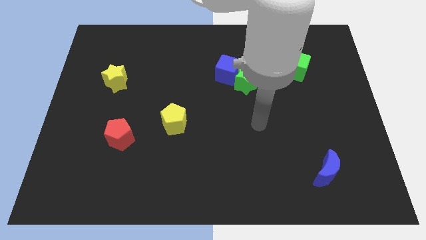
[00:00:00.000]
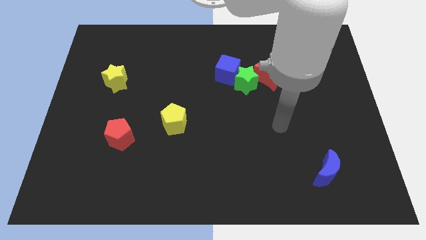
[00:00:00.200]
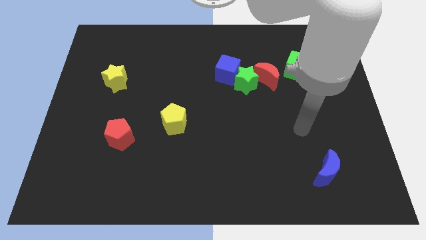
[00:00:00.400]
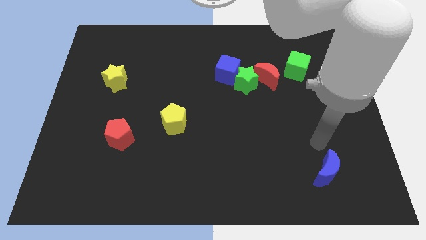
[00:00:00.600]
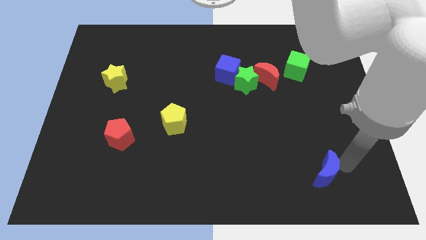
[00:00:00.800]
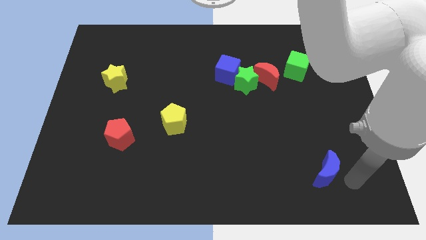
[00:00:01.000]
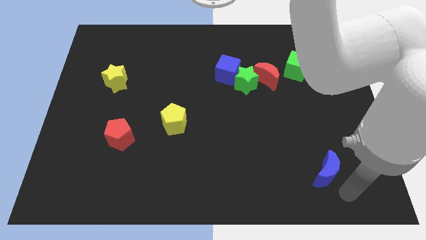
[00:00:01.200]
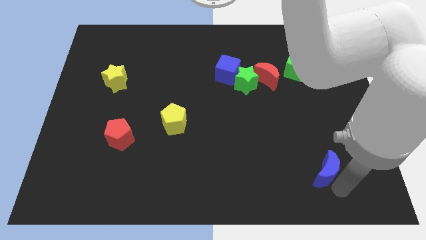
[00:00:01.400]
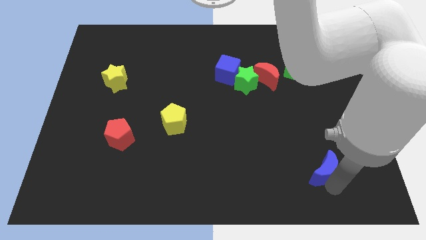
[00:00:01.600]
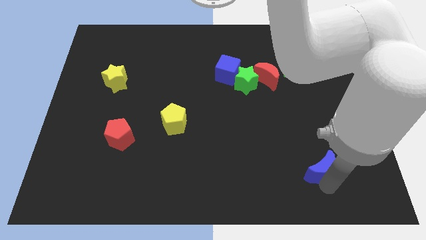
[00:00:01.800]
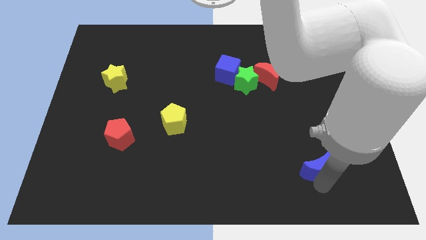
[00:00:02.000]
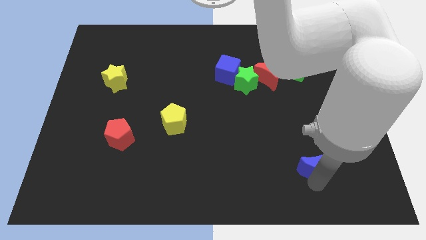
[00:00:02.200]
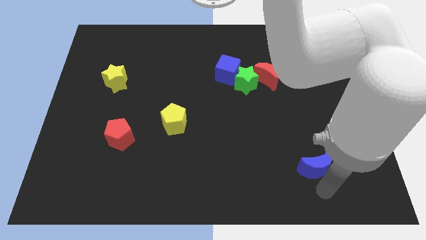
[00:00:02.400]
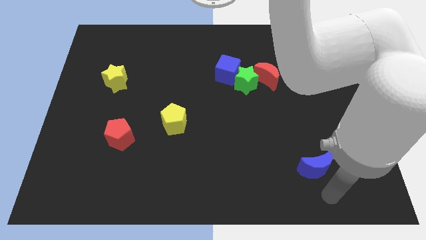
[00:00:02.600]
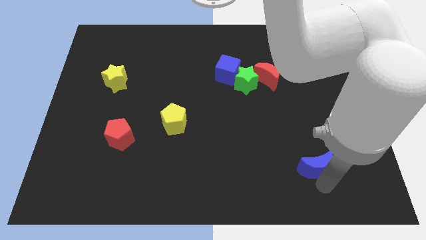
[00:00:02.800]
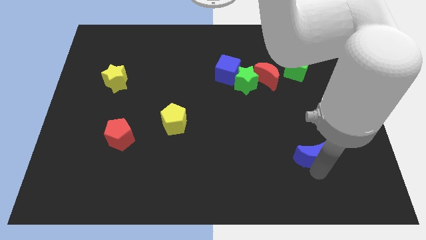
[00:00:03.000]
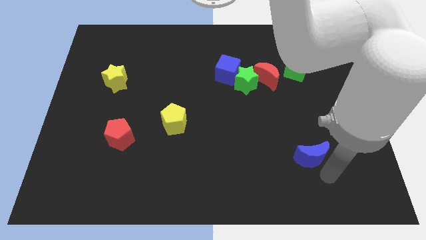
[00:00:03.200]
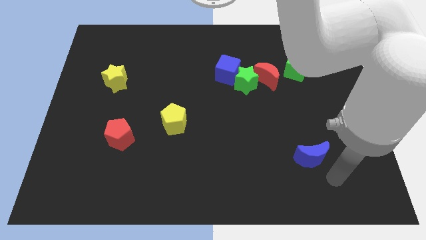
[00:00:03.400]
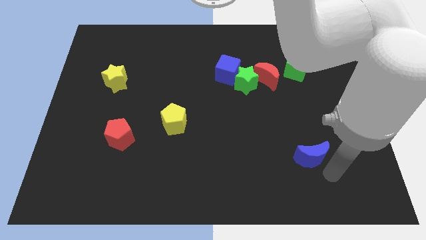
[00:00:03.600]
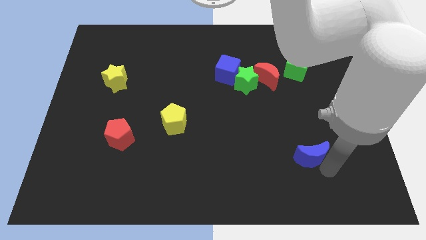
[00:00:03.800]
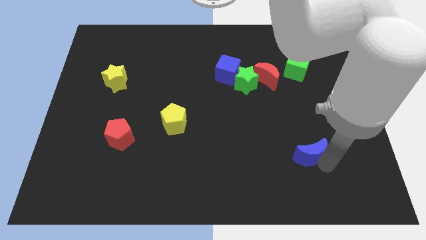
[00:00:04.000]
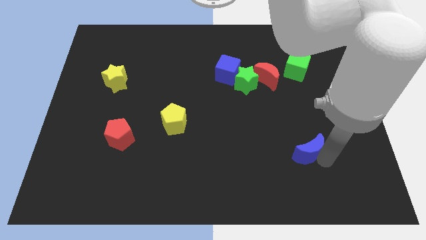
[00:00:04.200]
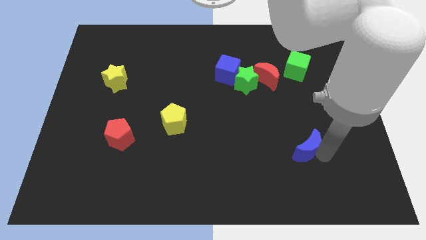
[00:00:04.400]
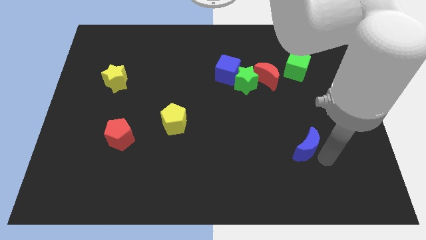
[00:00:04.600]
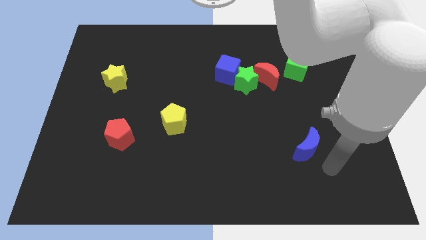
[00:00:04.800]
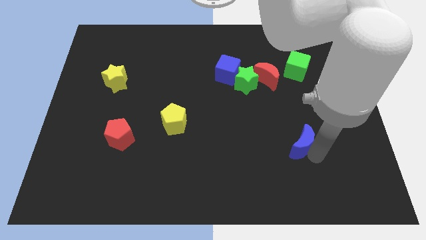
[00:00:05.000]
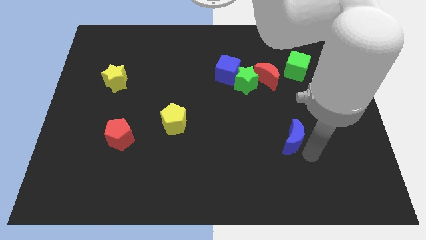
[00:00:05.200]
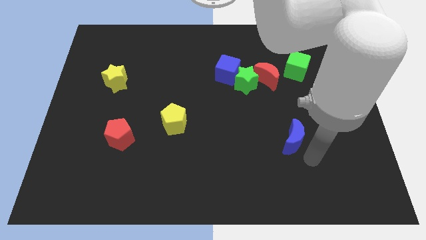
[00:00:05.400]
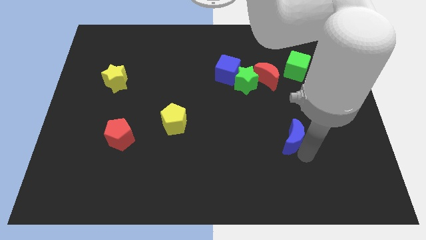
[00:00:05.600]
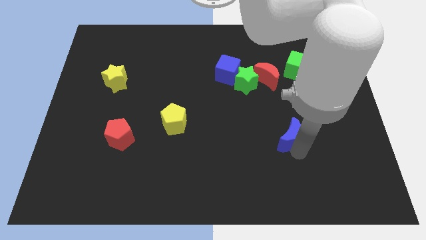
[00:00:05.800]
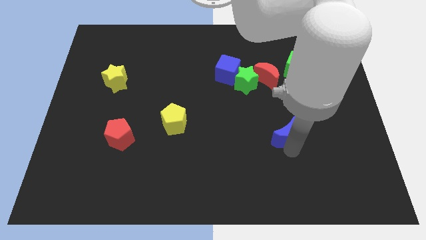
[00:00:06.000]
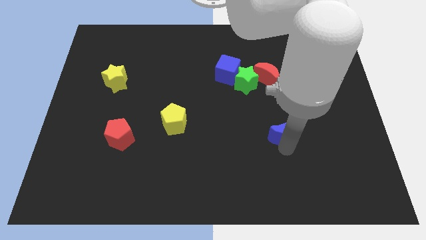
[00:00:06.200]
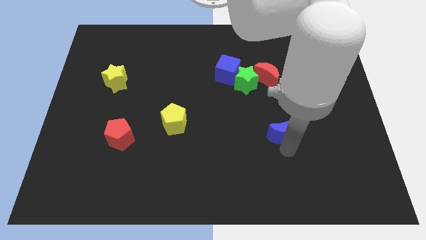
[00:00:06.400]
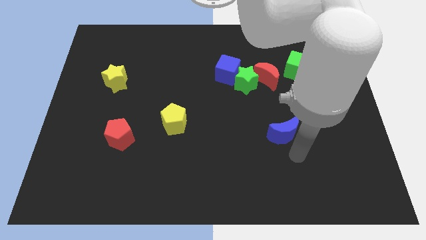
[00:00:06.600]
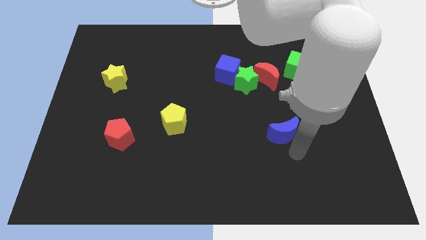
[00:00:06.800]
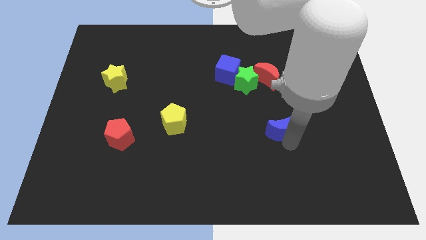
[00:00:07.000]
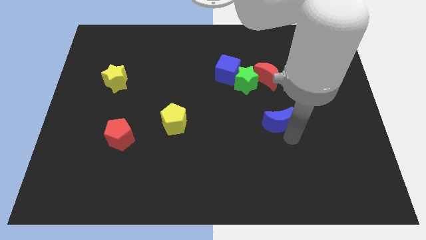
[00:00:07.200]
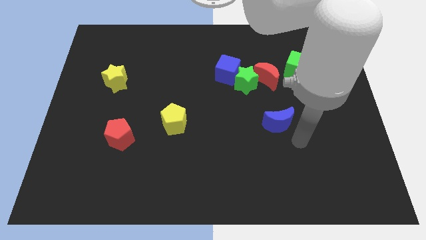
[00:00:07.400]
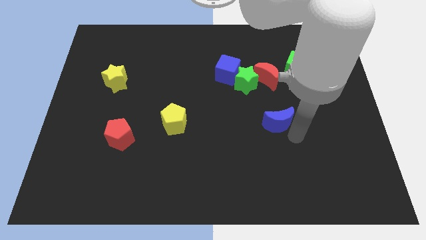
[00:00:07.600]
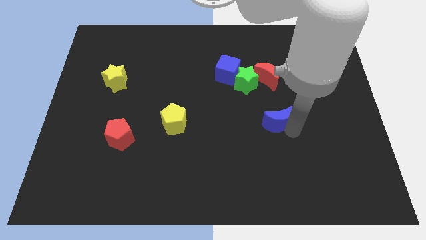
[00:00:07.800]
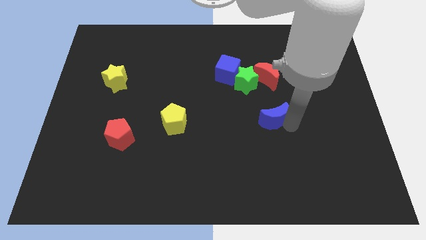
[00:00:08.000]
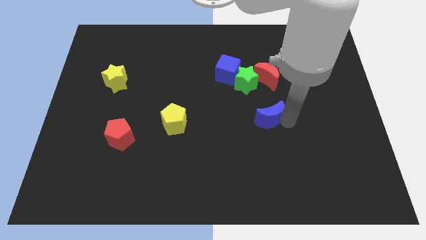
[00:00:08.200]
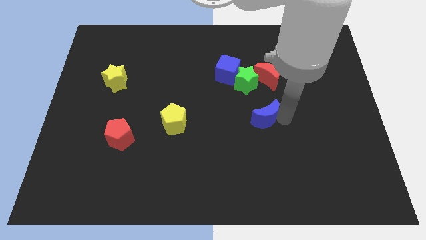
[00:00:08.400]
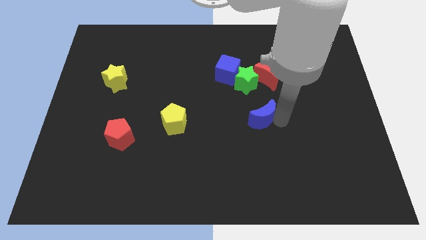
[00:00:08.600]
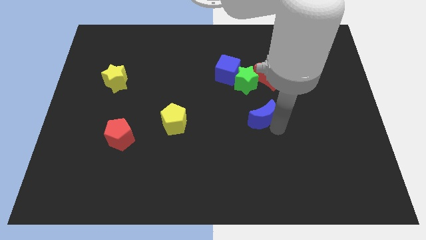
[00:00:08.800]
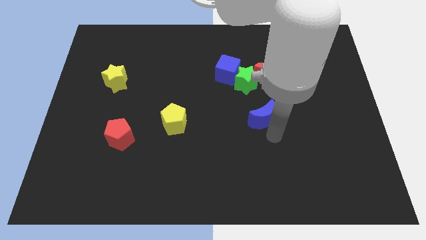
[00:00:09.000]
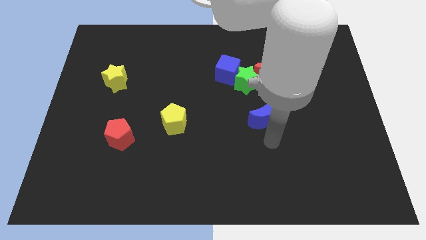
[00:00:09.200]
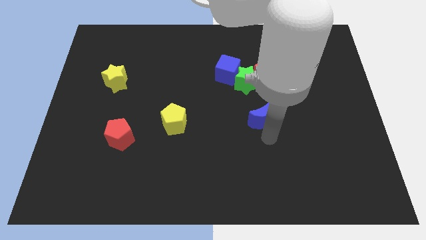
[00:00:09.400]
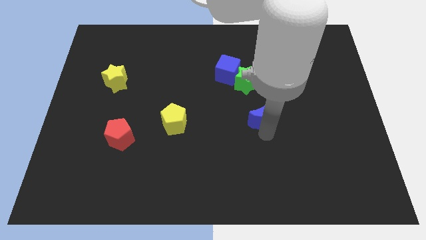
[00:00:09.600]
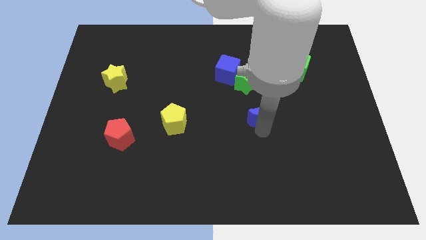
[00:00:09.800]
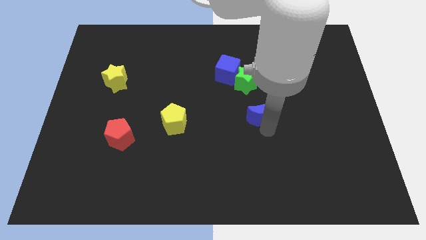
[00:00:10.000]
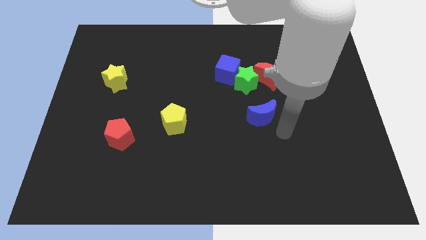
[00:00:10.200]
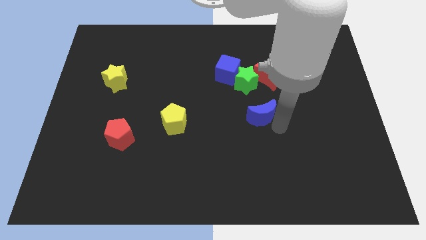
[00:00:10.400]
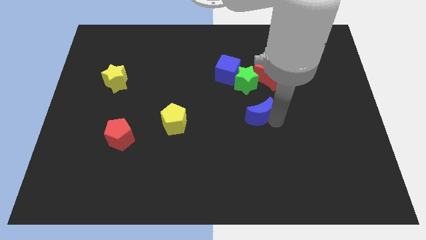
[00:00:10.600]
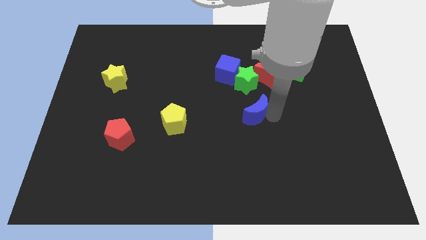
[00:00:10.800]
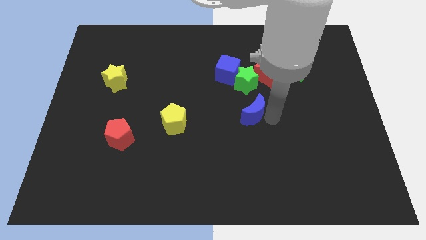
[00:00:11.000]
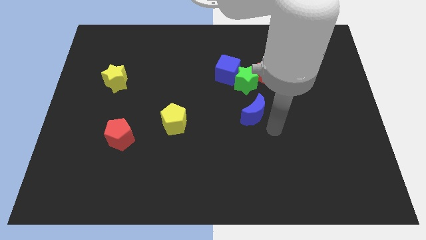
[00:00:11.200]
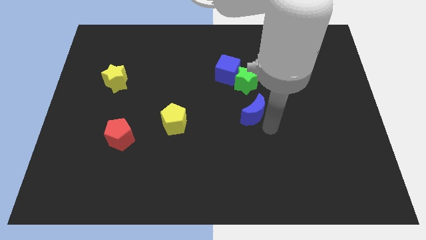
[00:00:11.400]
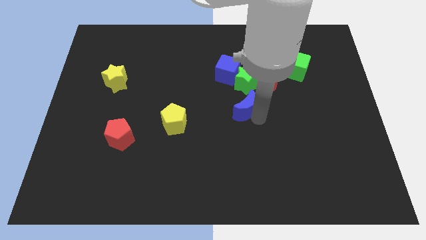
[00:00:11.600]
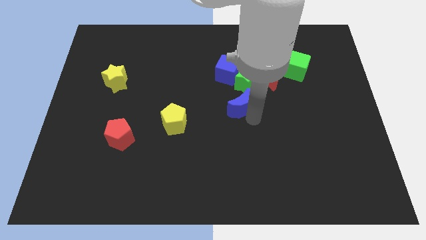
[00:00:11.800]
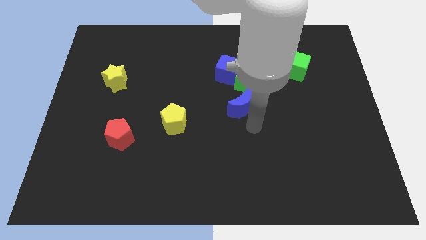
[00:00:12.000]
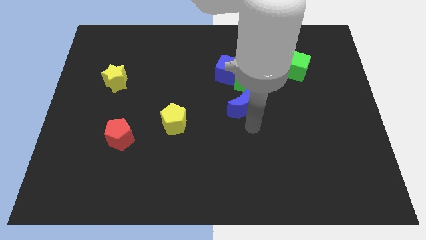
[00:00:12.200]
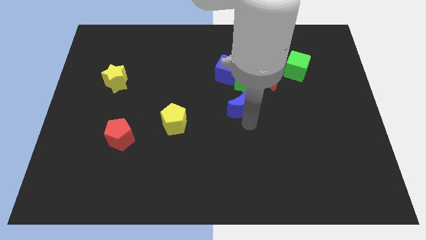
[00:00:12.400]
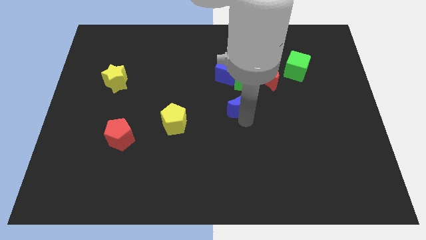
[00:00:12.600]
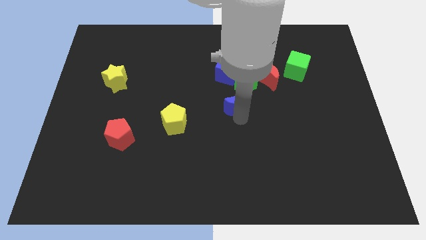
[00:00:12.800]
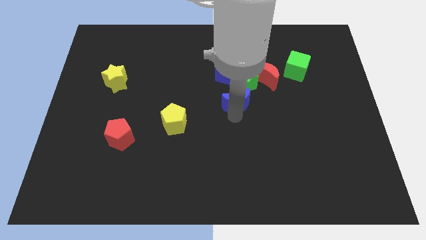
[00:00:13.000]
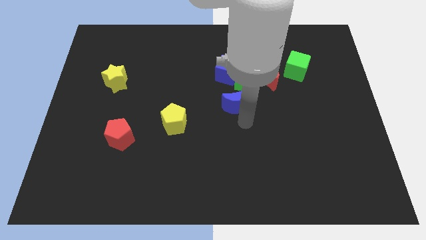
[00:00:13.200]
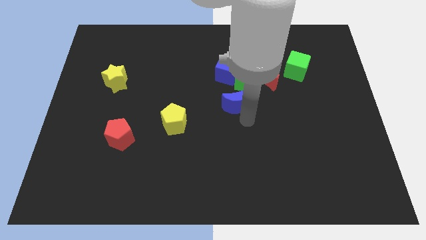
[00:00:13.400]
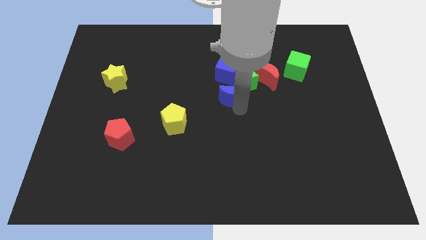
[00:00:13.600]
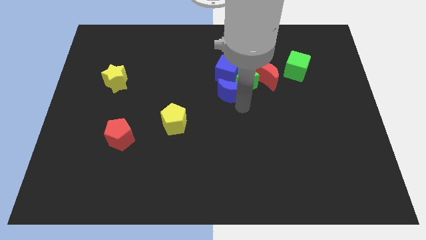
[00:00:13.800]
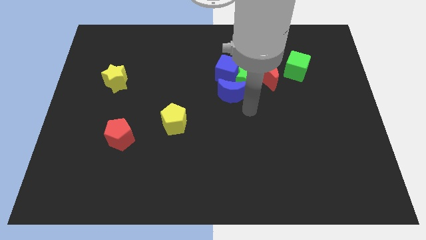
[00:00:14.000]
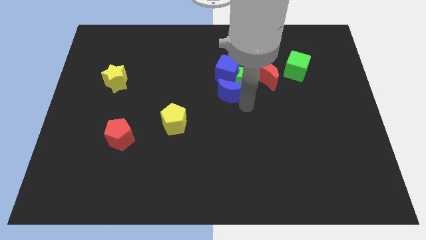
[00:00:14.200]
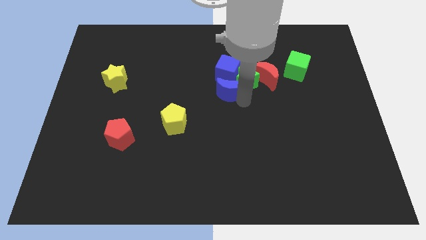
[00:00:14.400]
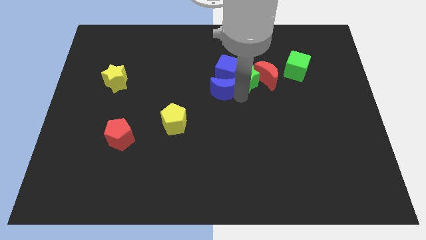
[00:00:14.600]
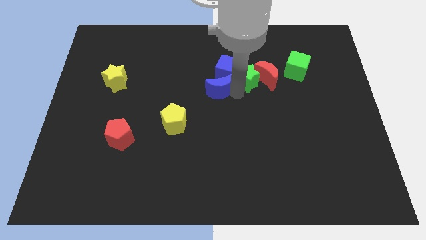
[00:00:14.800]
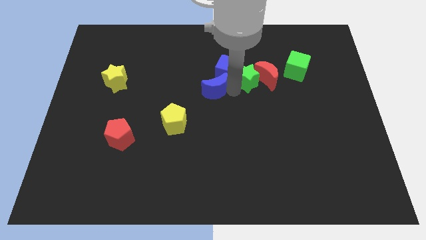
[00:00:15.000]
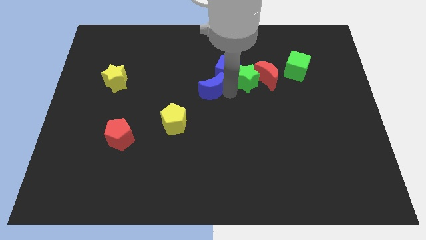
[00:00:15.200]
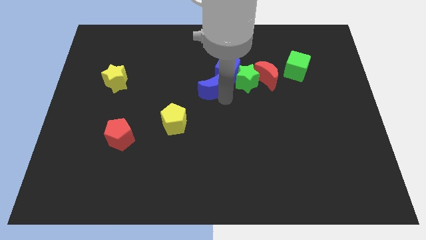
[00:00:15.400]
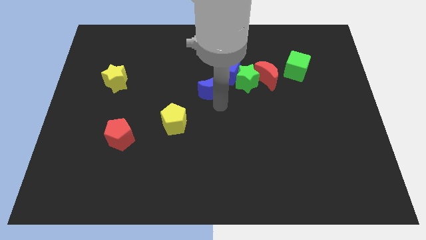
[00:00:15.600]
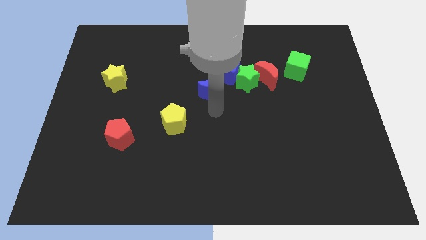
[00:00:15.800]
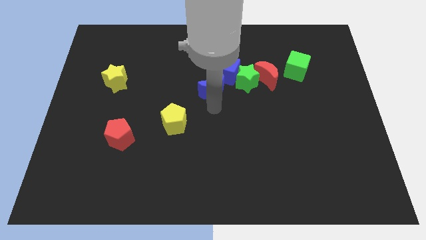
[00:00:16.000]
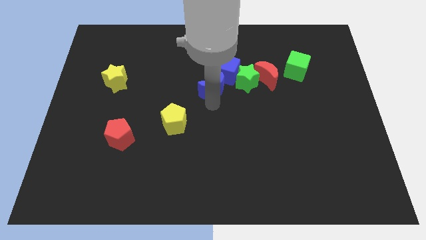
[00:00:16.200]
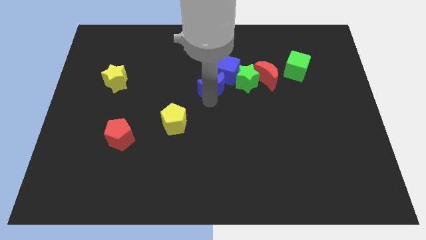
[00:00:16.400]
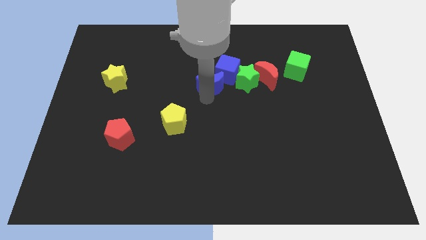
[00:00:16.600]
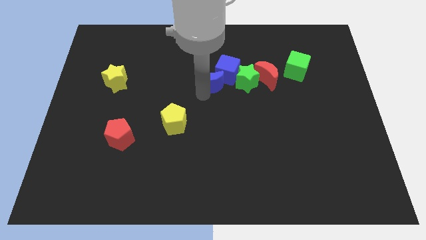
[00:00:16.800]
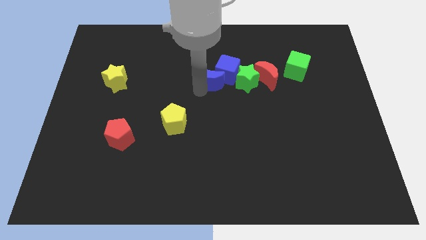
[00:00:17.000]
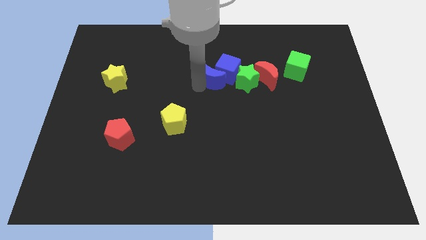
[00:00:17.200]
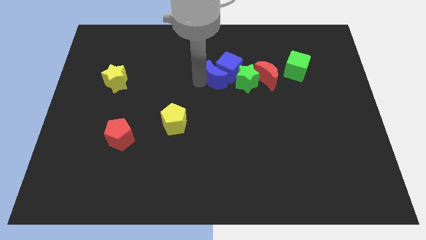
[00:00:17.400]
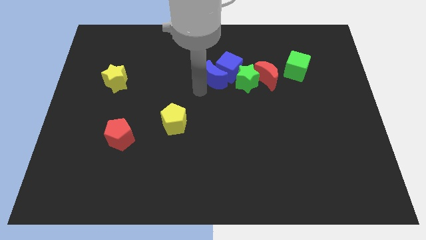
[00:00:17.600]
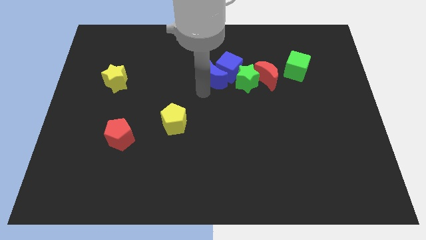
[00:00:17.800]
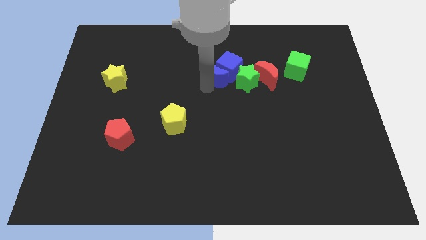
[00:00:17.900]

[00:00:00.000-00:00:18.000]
slide the blue moon diagonally up and to the left of the green star
